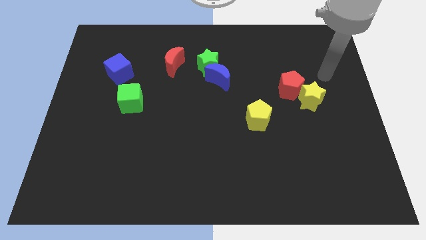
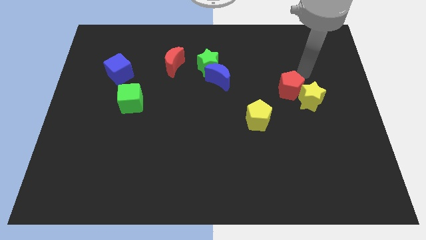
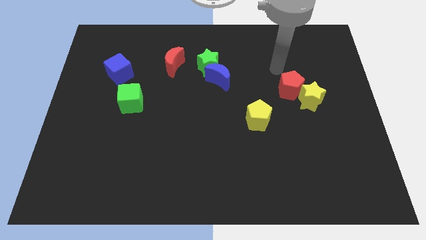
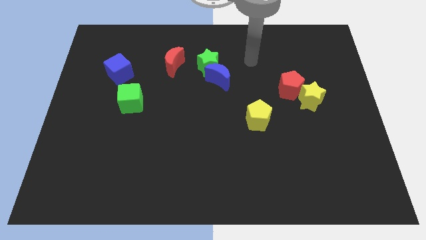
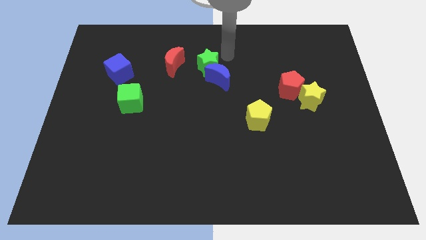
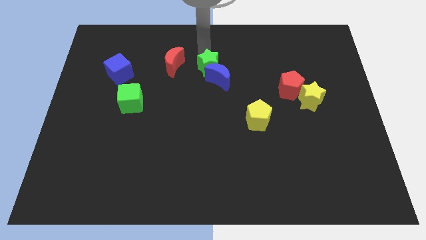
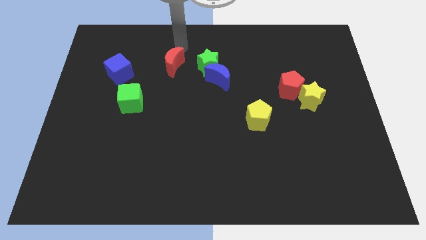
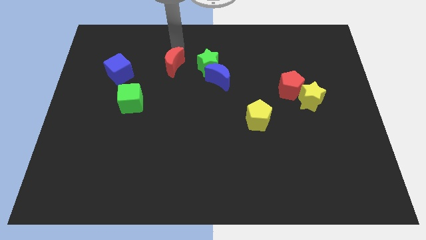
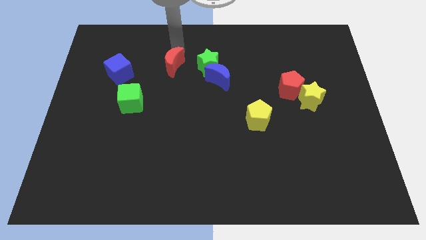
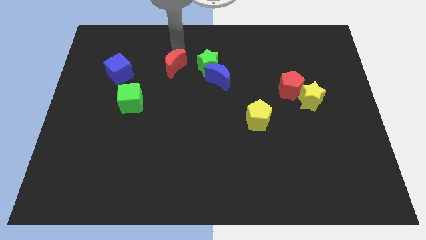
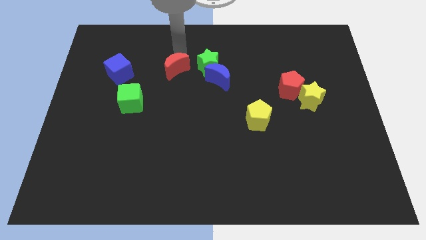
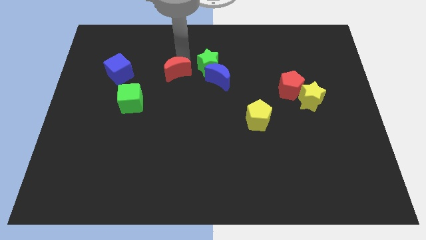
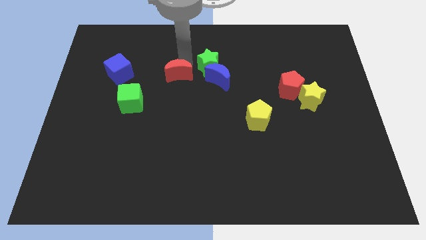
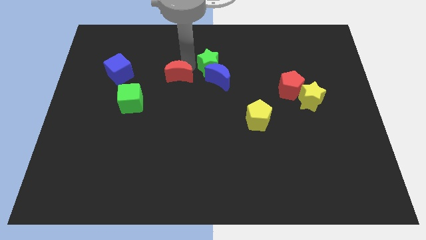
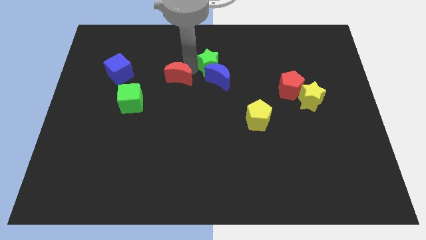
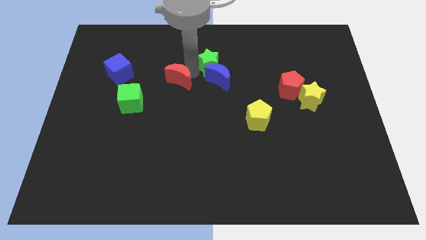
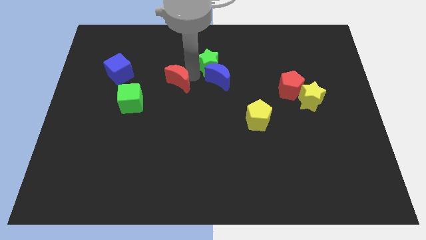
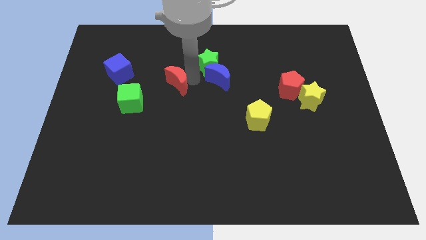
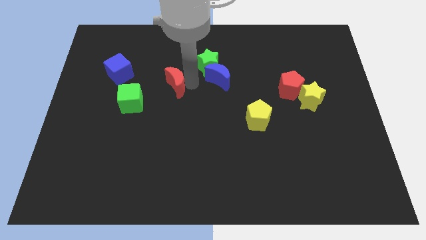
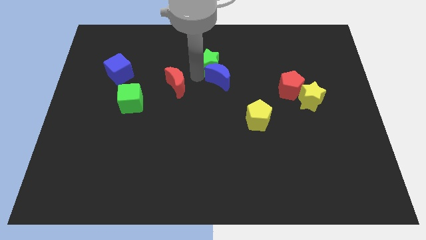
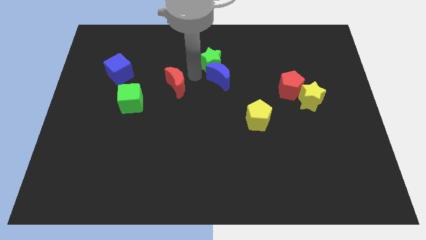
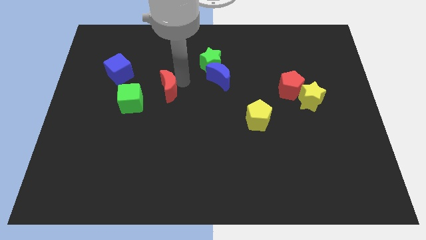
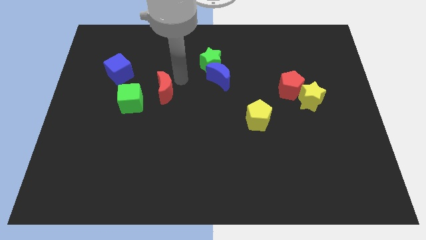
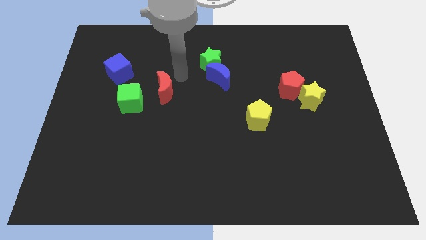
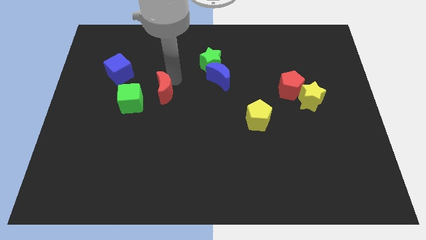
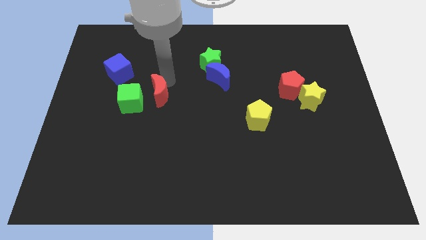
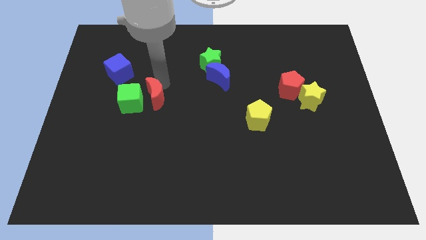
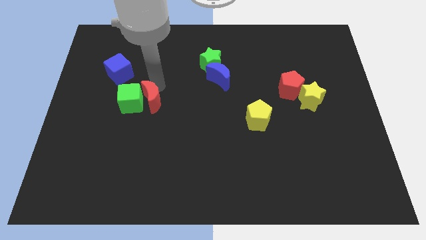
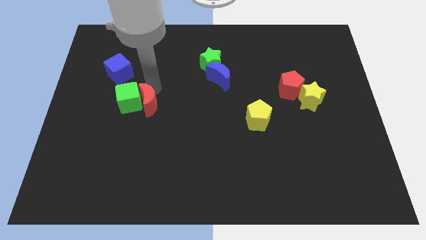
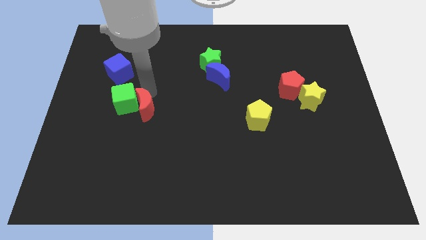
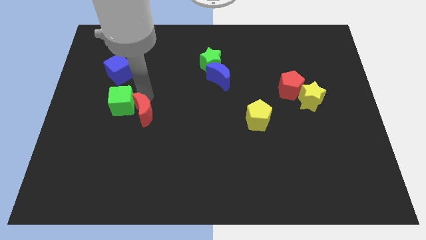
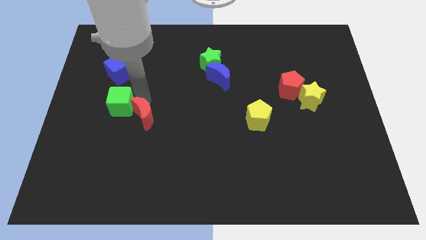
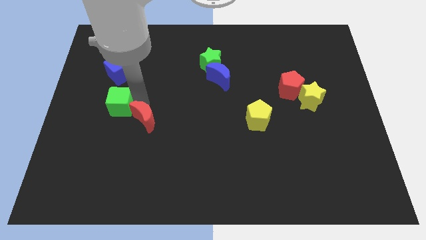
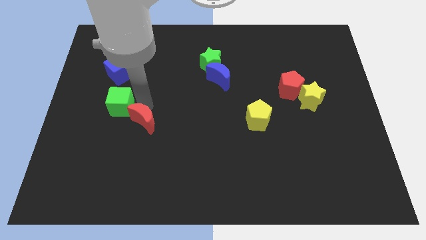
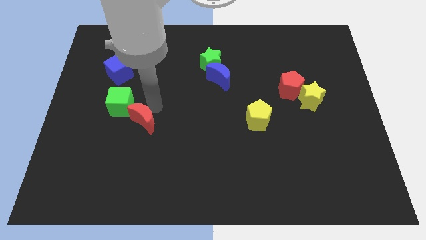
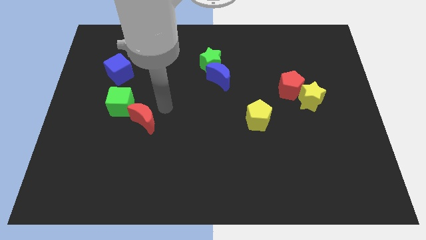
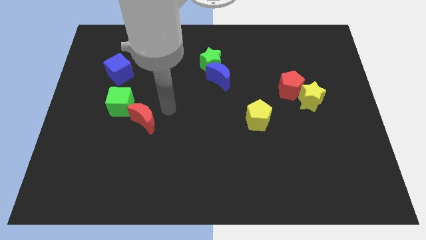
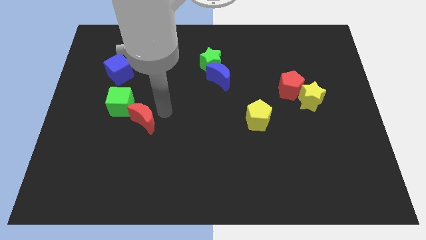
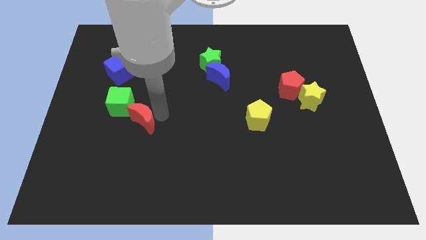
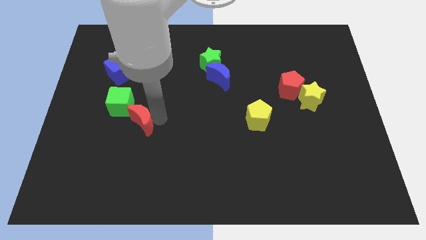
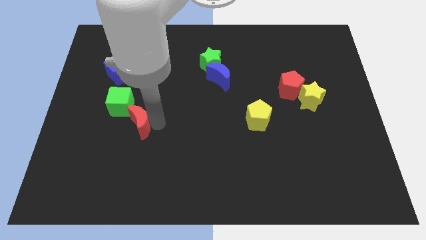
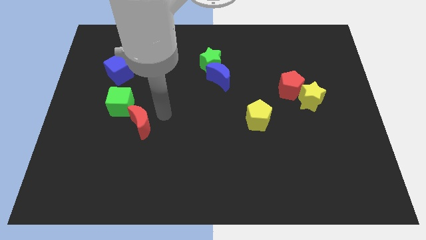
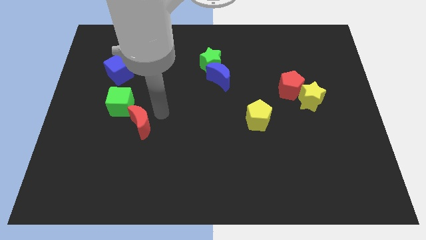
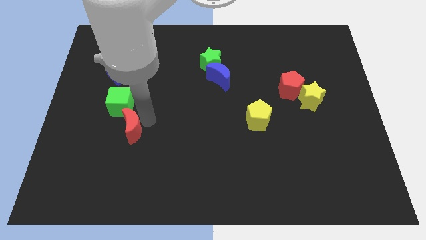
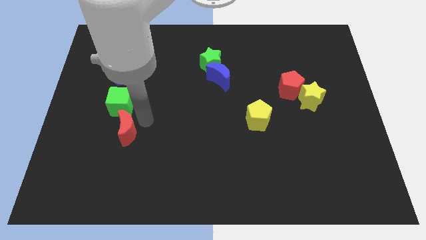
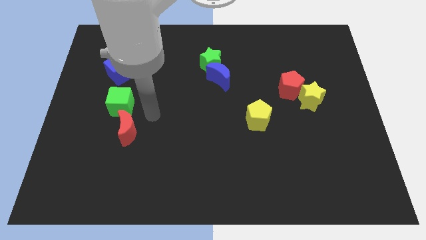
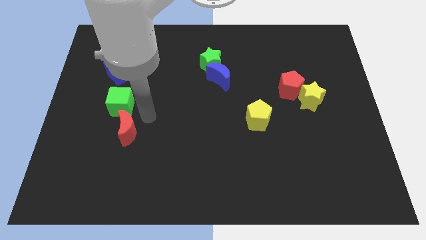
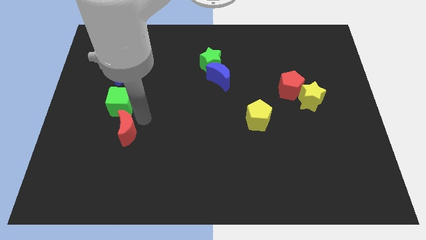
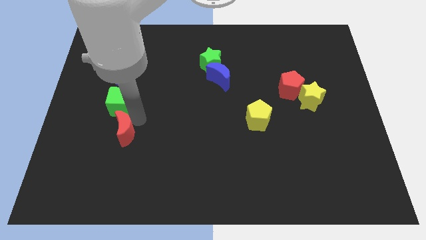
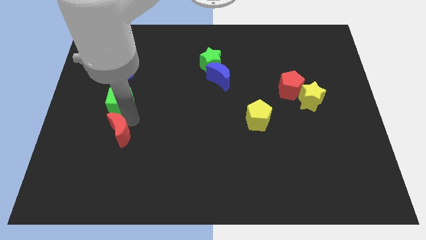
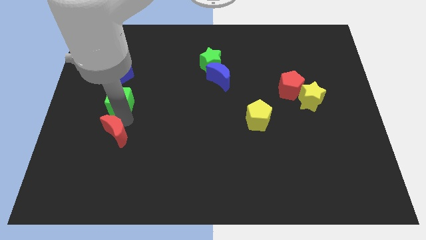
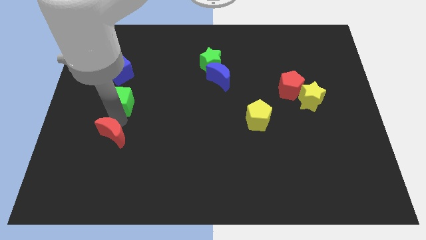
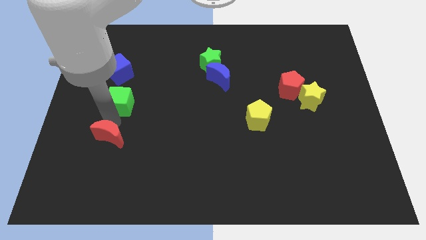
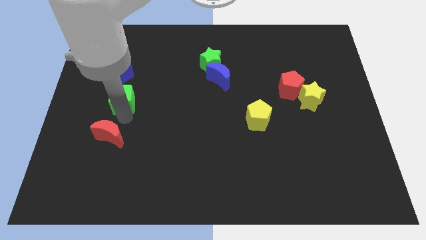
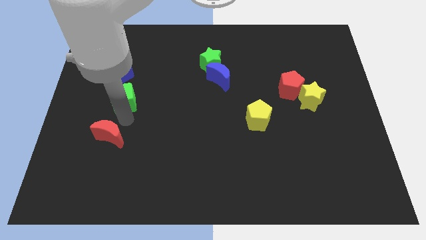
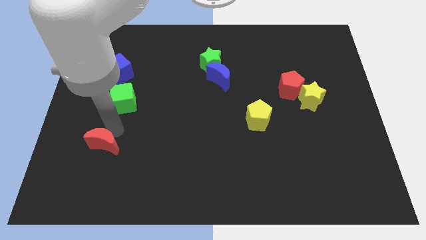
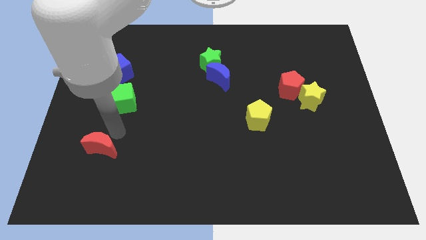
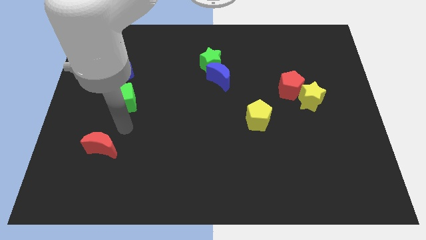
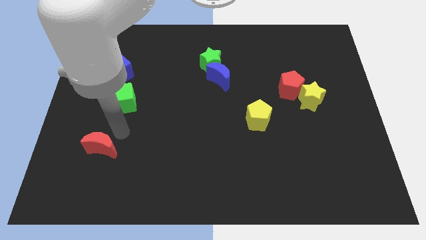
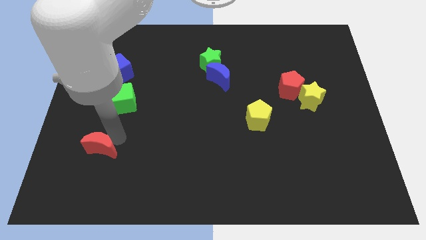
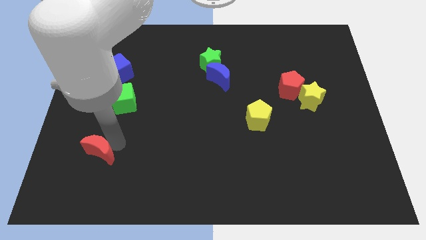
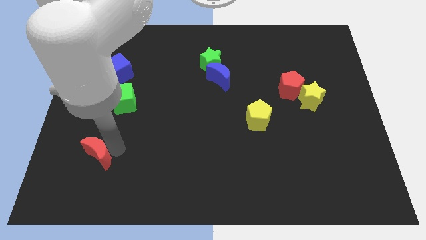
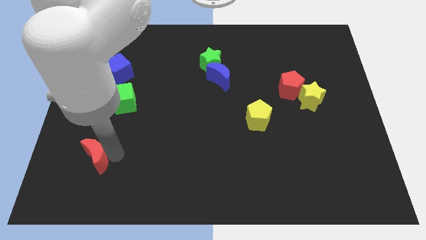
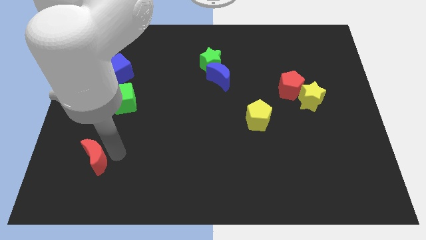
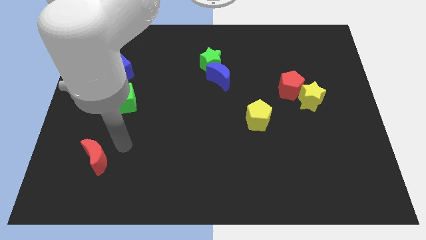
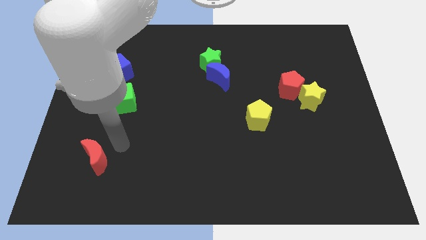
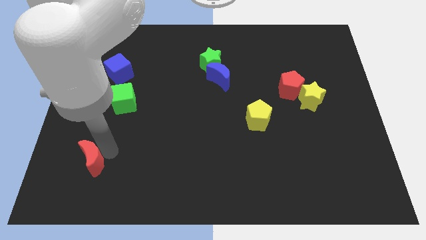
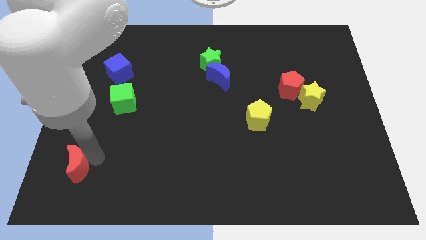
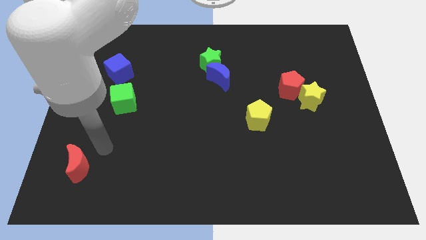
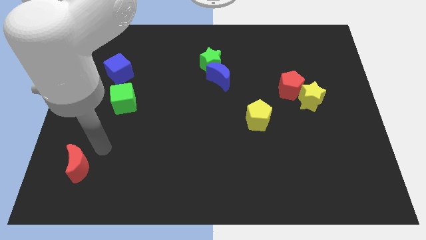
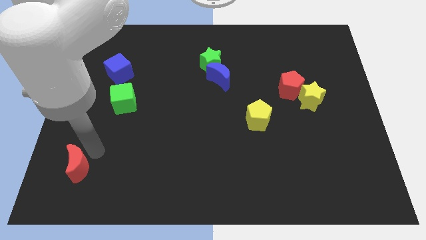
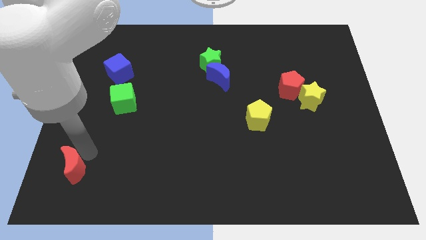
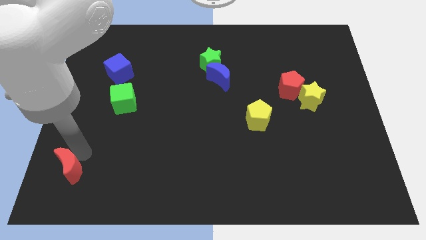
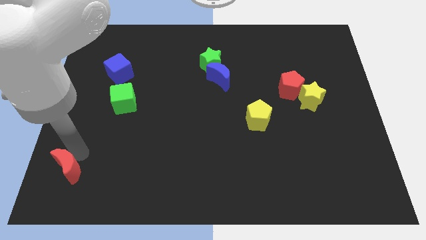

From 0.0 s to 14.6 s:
move the red moon to the bottom left
